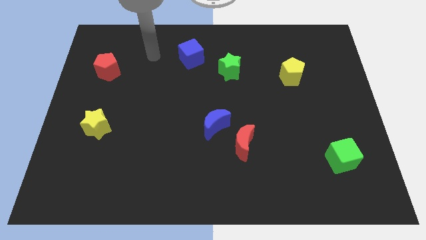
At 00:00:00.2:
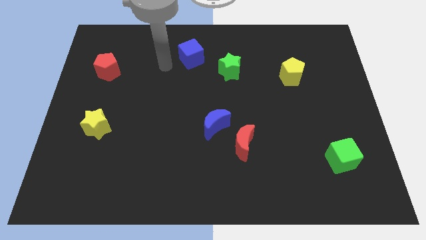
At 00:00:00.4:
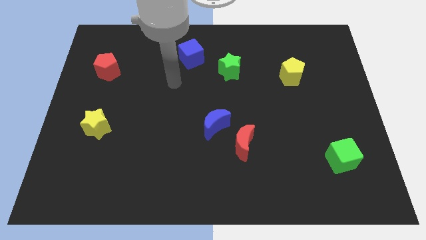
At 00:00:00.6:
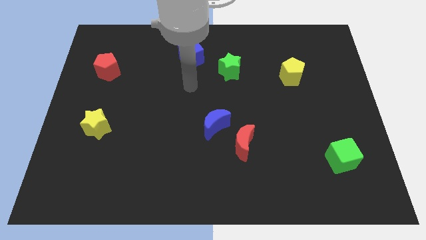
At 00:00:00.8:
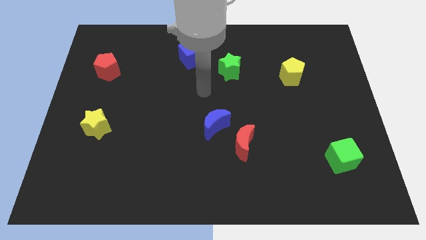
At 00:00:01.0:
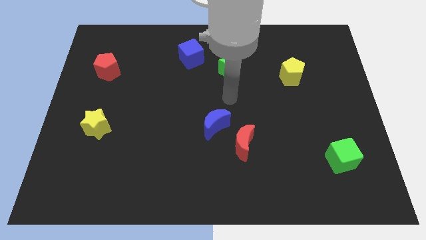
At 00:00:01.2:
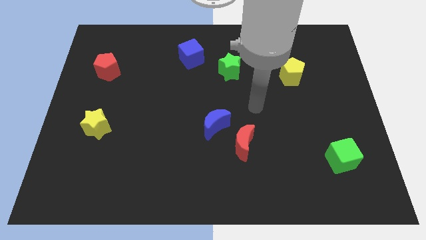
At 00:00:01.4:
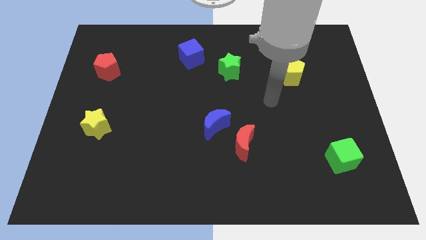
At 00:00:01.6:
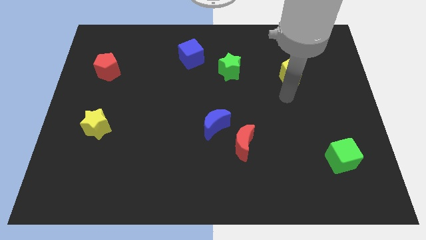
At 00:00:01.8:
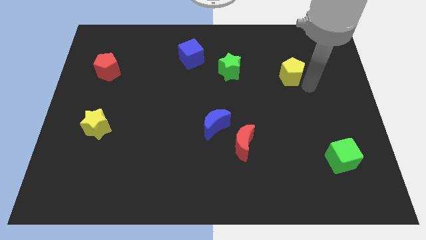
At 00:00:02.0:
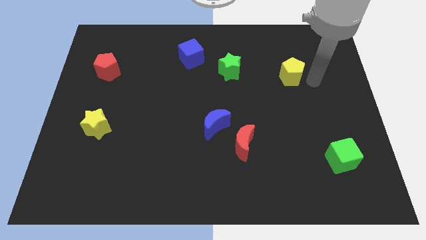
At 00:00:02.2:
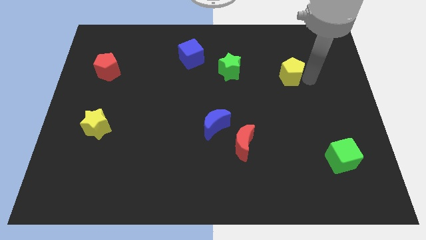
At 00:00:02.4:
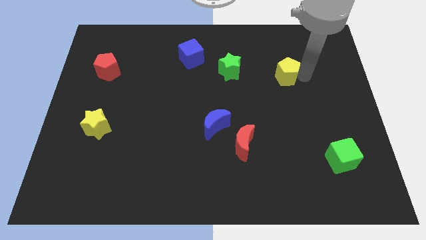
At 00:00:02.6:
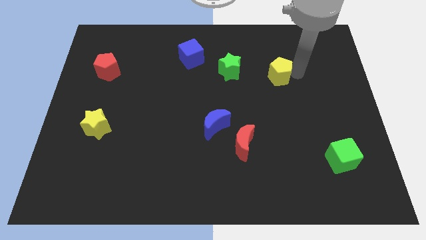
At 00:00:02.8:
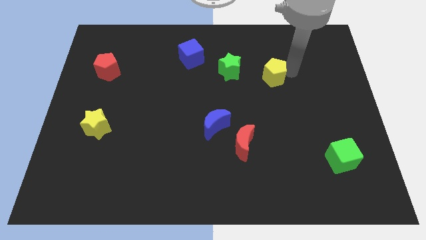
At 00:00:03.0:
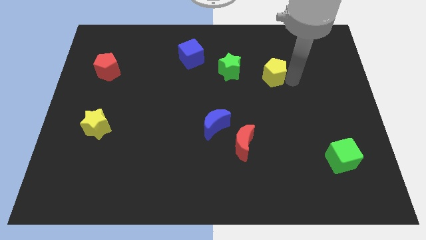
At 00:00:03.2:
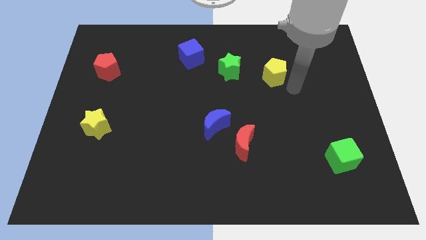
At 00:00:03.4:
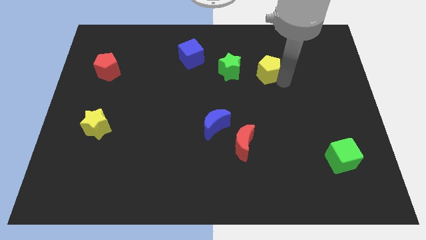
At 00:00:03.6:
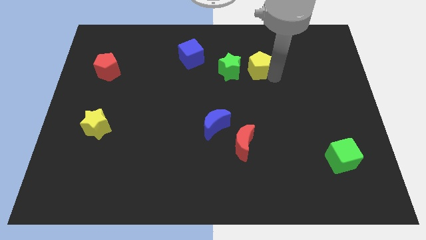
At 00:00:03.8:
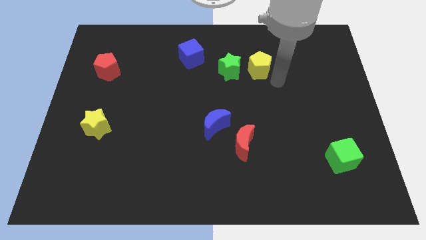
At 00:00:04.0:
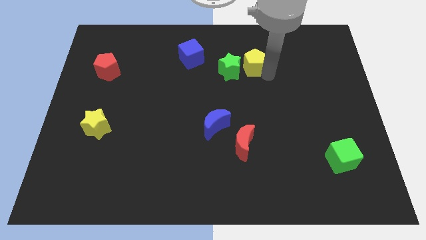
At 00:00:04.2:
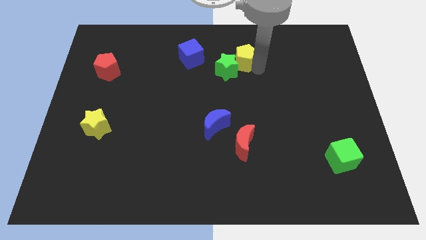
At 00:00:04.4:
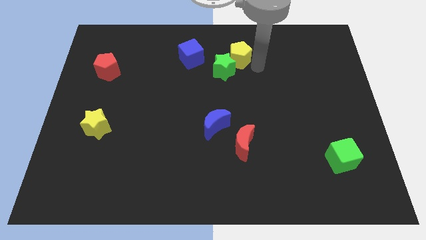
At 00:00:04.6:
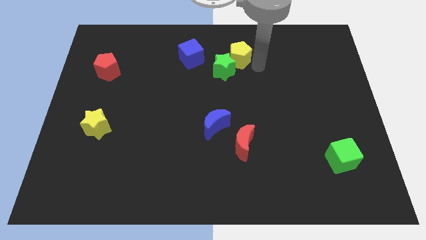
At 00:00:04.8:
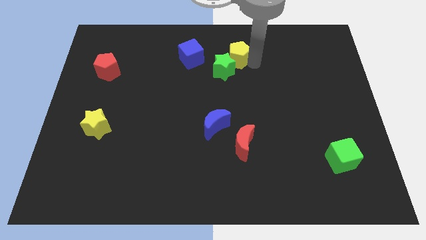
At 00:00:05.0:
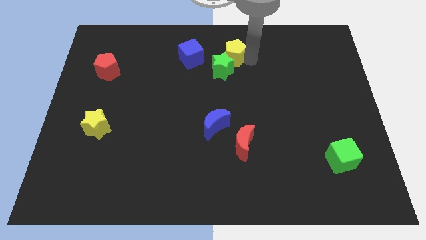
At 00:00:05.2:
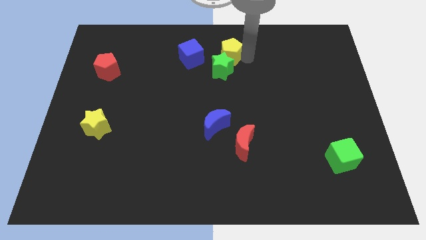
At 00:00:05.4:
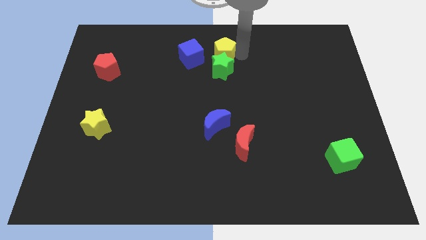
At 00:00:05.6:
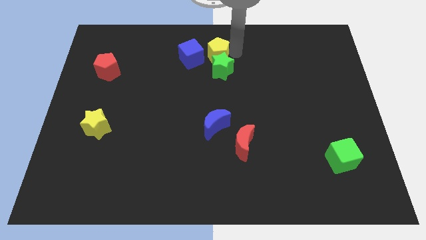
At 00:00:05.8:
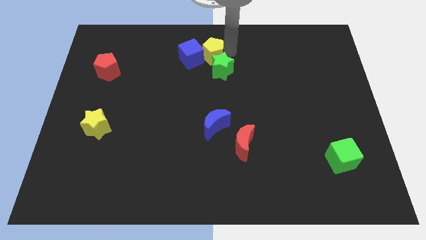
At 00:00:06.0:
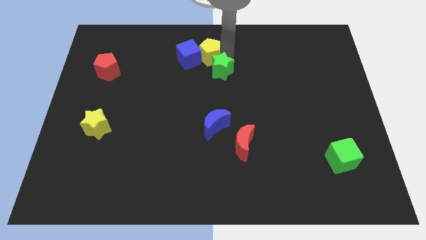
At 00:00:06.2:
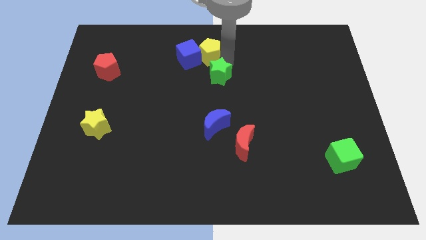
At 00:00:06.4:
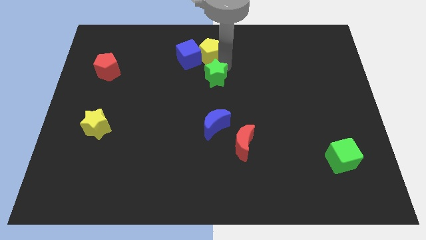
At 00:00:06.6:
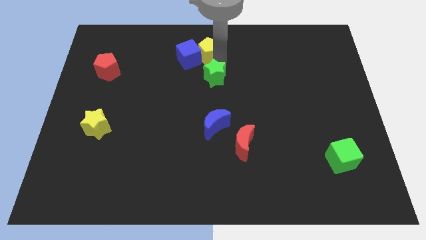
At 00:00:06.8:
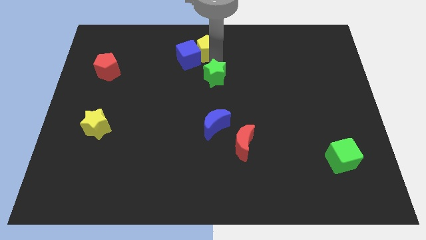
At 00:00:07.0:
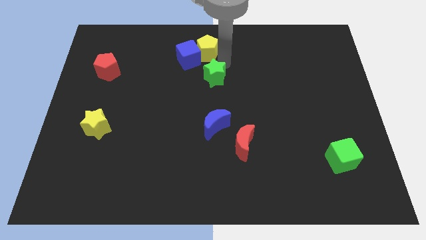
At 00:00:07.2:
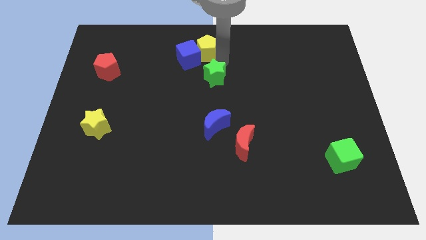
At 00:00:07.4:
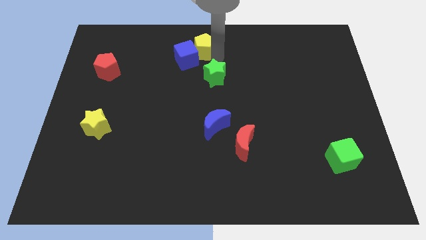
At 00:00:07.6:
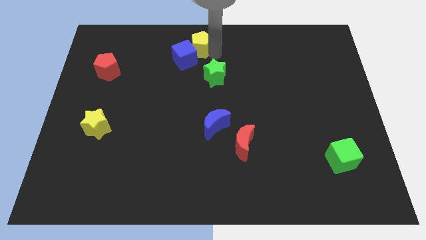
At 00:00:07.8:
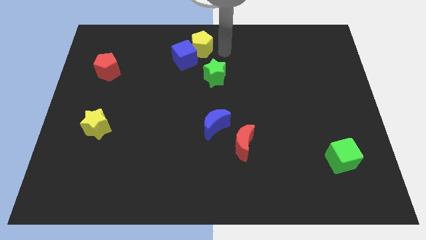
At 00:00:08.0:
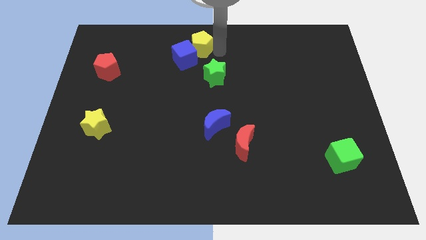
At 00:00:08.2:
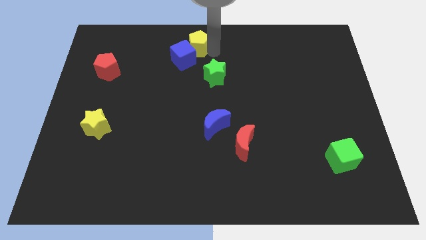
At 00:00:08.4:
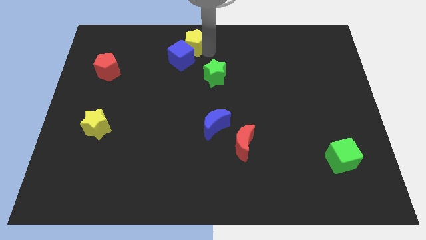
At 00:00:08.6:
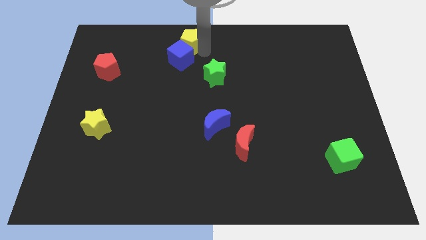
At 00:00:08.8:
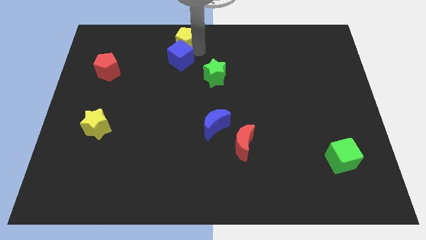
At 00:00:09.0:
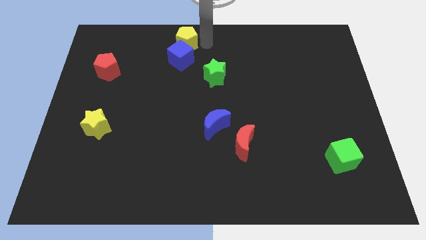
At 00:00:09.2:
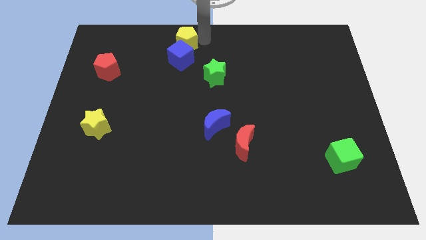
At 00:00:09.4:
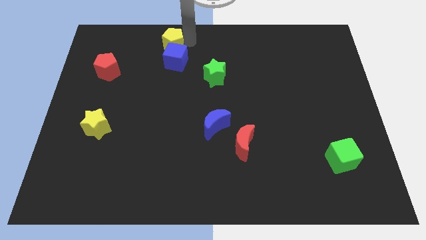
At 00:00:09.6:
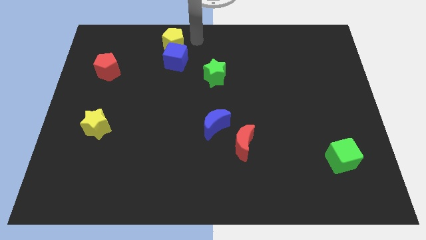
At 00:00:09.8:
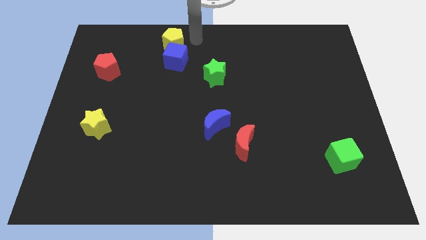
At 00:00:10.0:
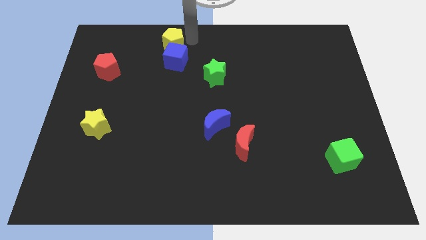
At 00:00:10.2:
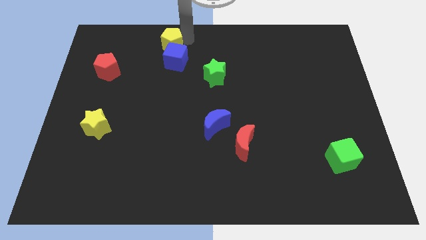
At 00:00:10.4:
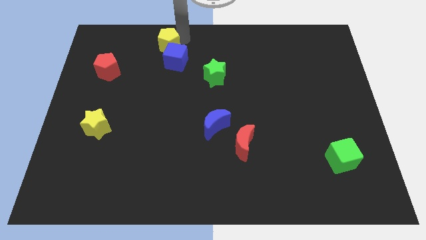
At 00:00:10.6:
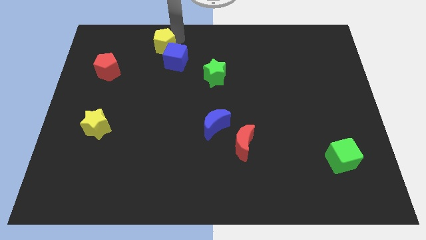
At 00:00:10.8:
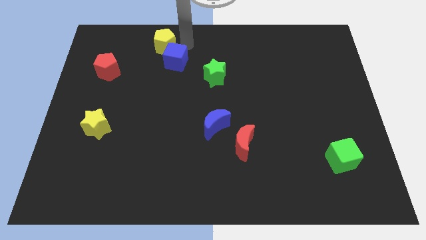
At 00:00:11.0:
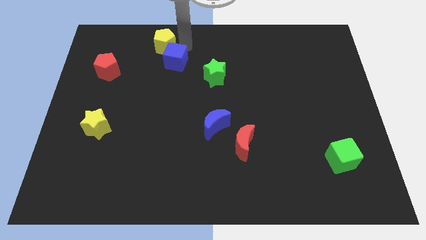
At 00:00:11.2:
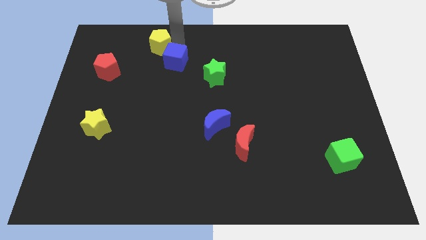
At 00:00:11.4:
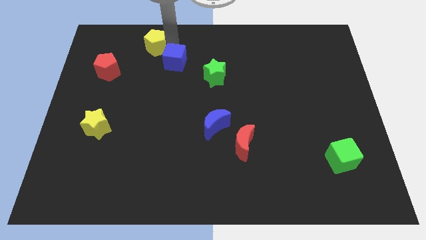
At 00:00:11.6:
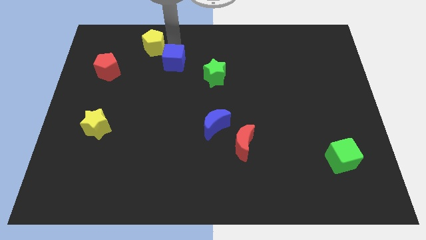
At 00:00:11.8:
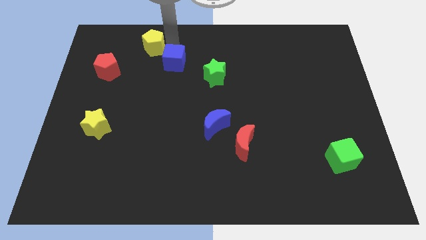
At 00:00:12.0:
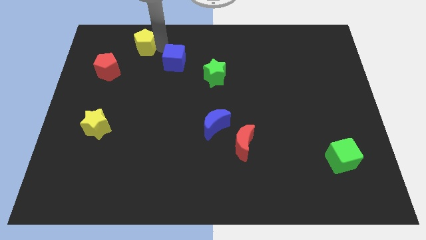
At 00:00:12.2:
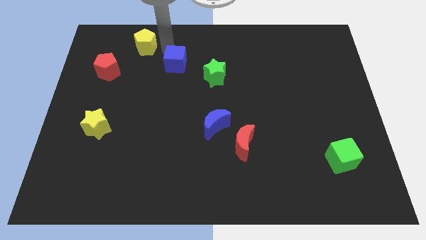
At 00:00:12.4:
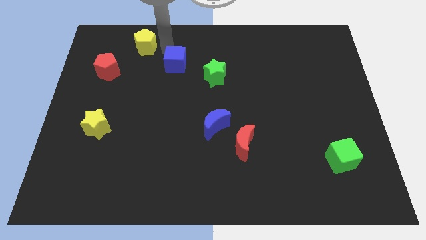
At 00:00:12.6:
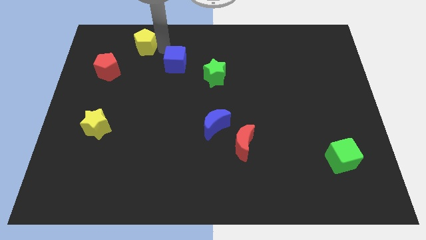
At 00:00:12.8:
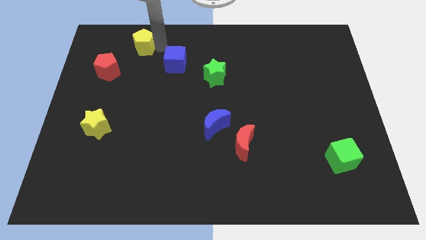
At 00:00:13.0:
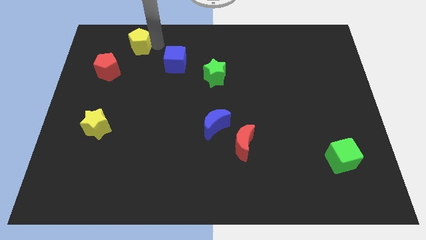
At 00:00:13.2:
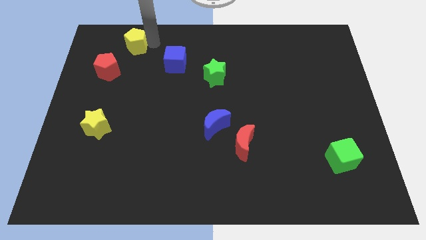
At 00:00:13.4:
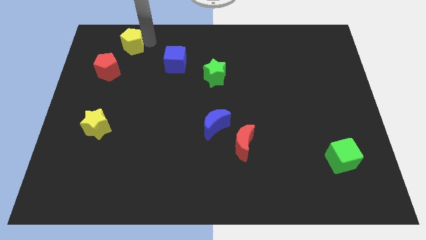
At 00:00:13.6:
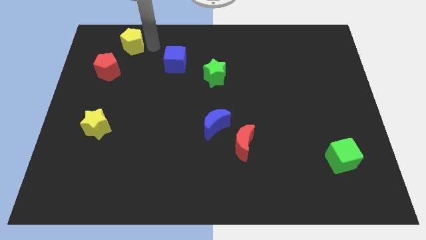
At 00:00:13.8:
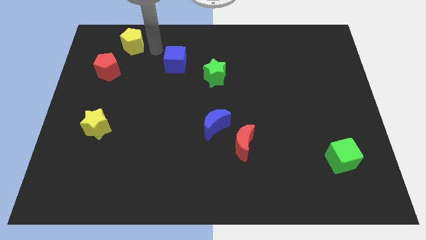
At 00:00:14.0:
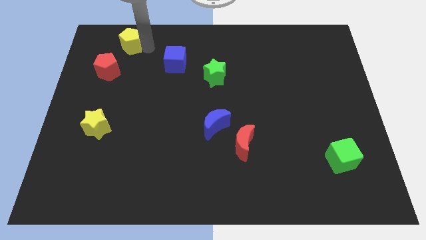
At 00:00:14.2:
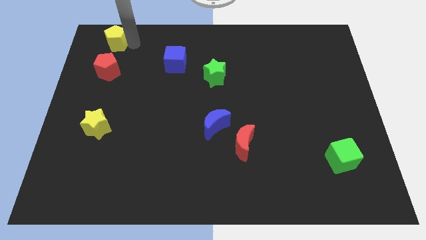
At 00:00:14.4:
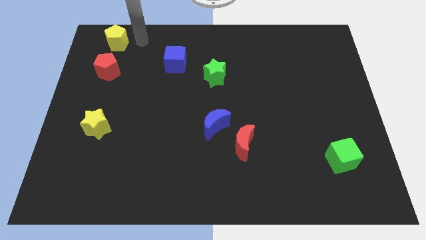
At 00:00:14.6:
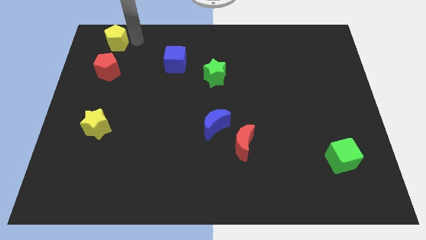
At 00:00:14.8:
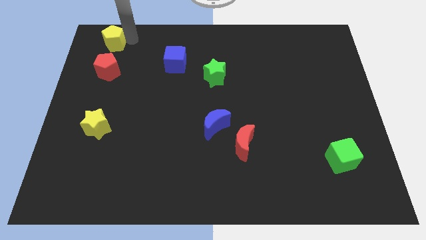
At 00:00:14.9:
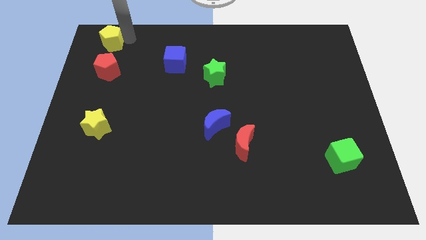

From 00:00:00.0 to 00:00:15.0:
slide the yellow pentagon to the top left
